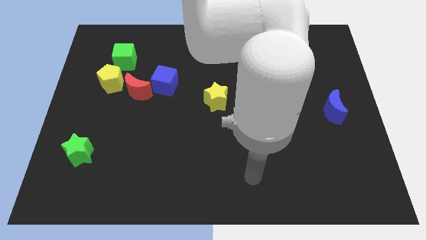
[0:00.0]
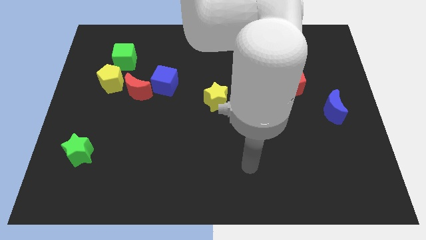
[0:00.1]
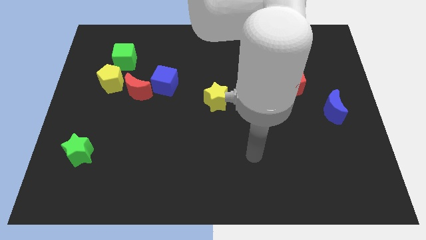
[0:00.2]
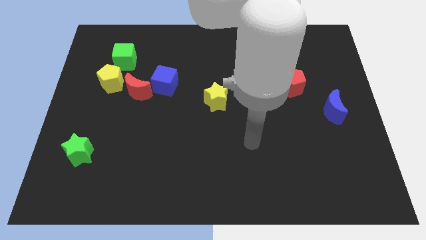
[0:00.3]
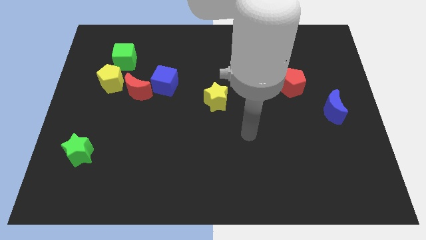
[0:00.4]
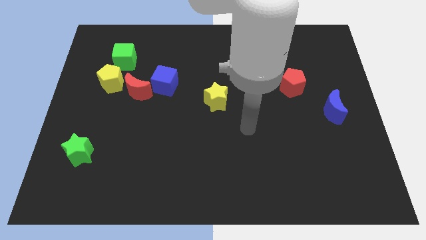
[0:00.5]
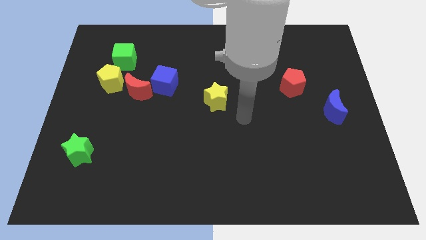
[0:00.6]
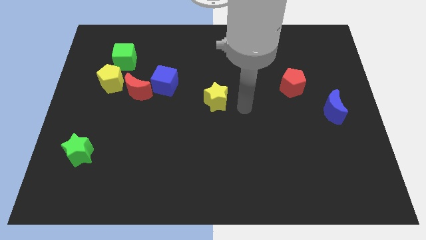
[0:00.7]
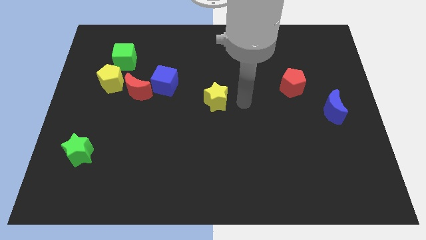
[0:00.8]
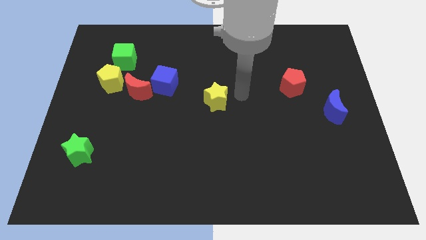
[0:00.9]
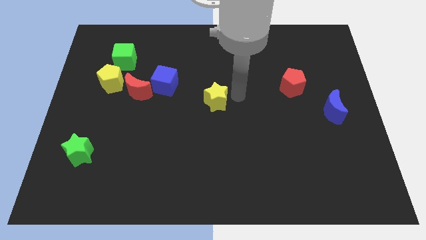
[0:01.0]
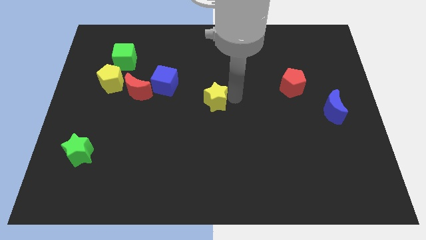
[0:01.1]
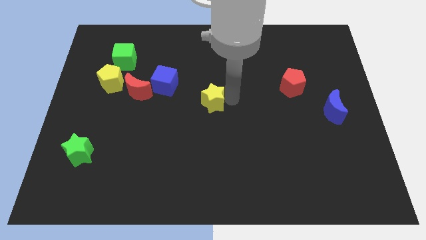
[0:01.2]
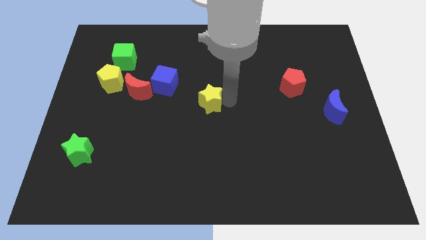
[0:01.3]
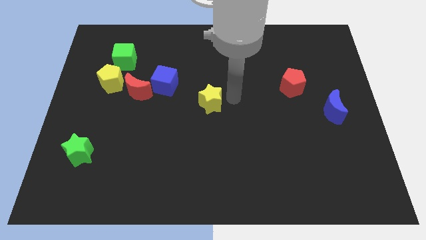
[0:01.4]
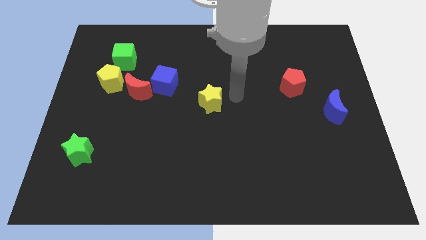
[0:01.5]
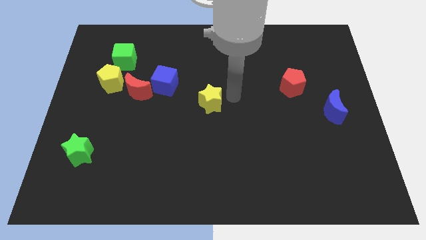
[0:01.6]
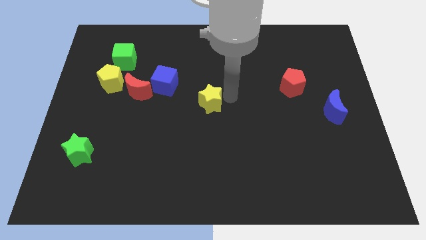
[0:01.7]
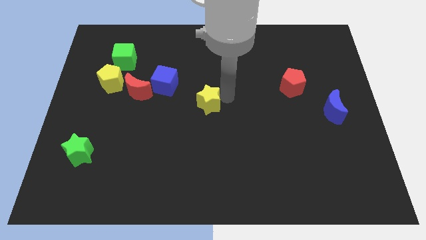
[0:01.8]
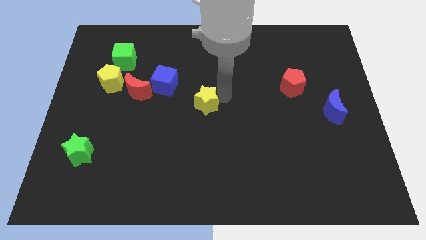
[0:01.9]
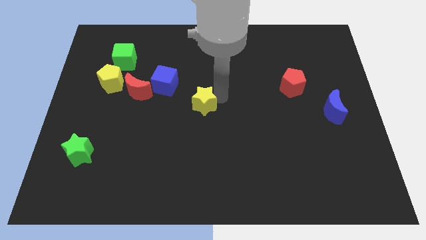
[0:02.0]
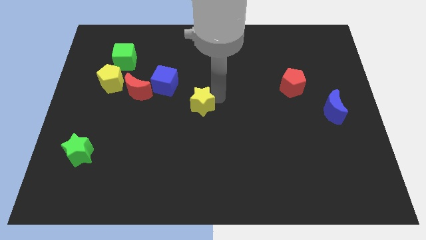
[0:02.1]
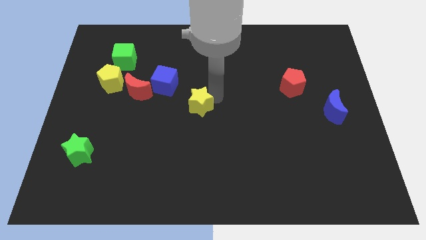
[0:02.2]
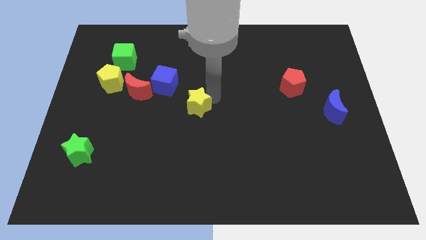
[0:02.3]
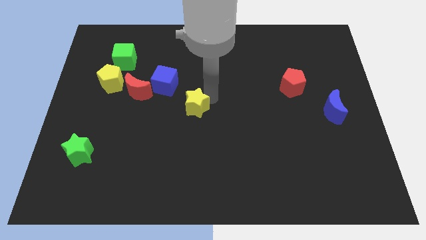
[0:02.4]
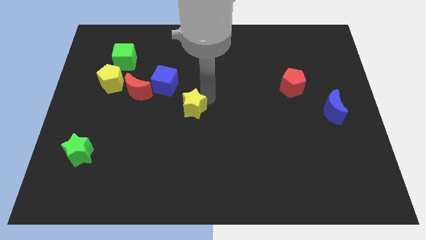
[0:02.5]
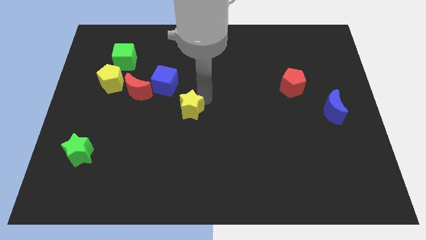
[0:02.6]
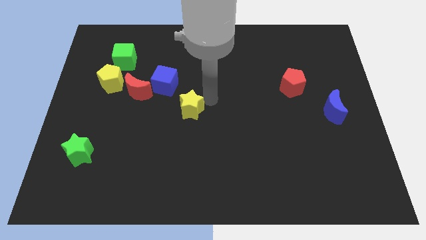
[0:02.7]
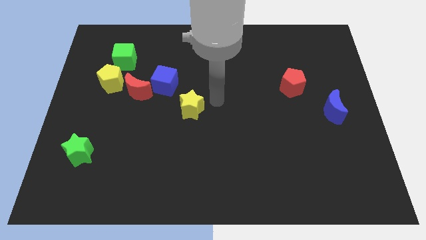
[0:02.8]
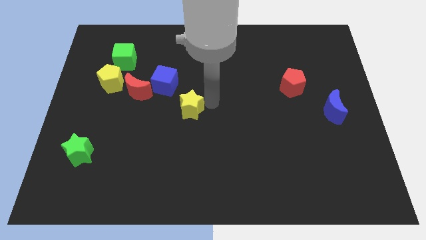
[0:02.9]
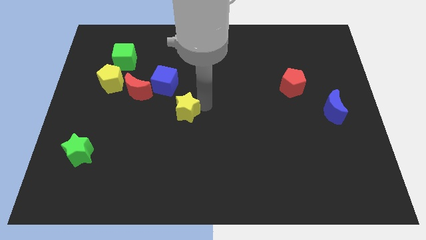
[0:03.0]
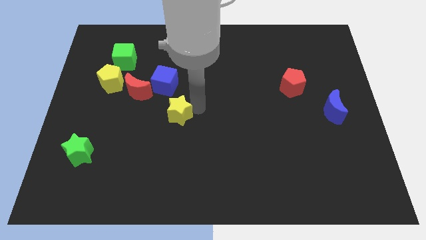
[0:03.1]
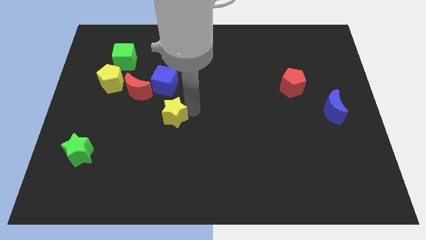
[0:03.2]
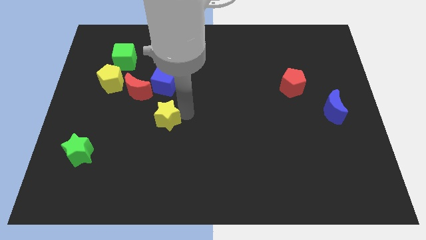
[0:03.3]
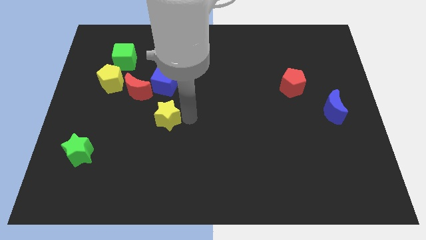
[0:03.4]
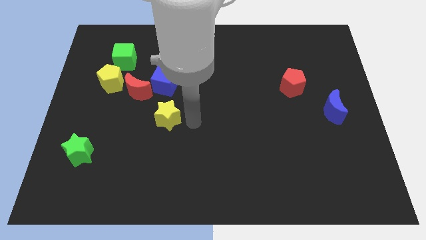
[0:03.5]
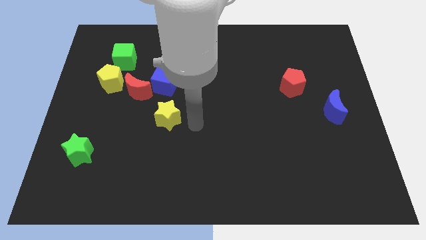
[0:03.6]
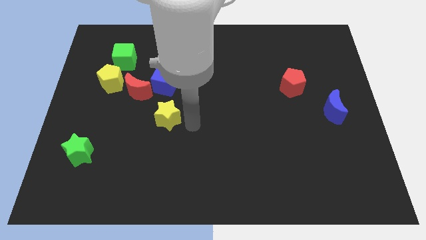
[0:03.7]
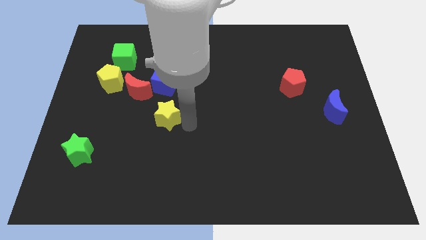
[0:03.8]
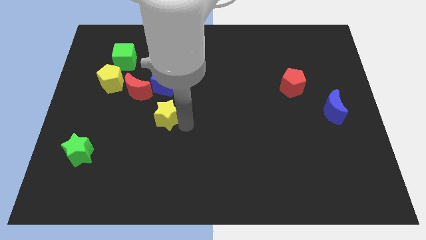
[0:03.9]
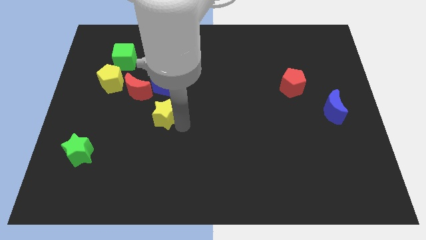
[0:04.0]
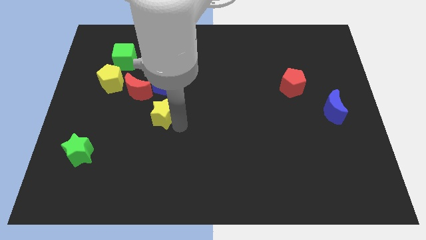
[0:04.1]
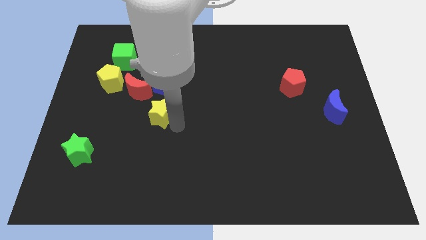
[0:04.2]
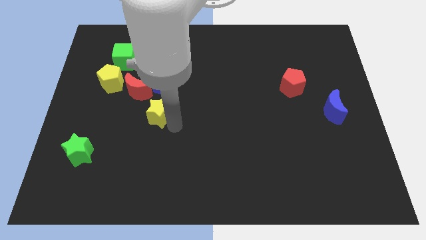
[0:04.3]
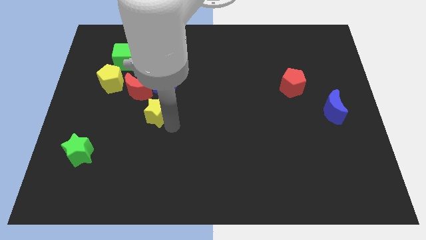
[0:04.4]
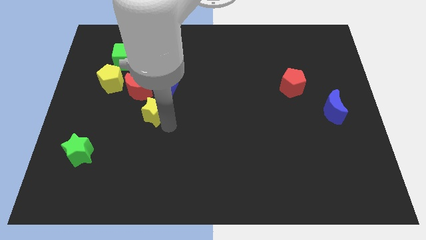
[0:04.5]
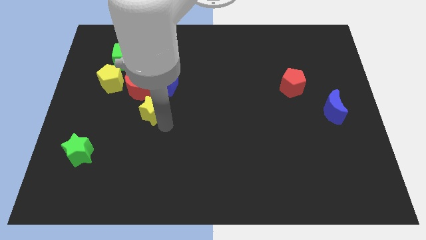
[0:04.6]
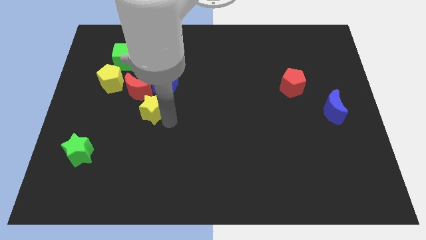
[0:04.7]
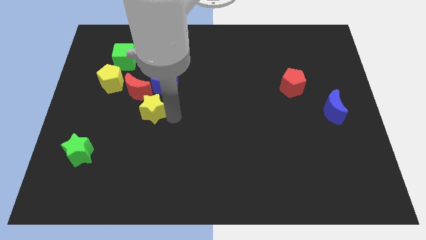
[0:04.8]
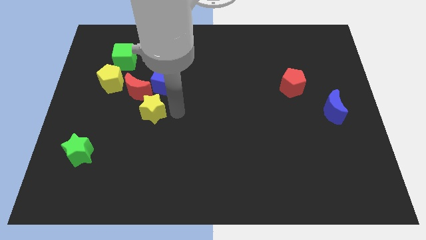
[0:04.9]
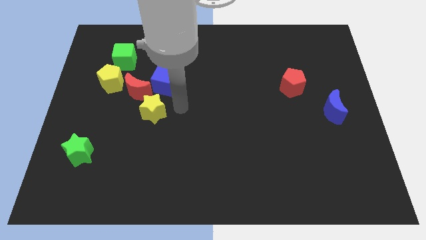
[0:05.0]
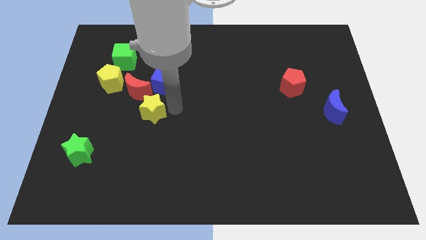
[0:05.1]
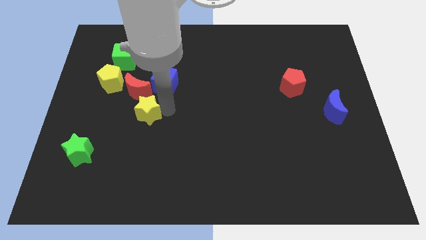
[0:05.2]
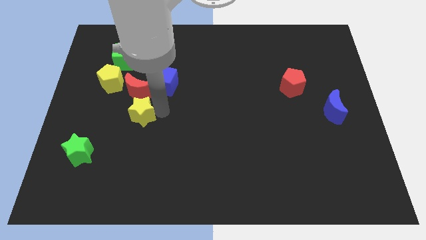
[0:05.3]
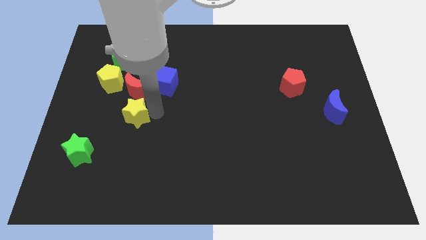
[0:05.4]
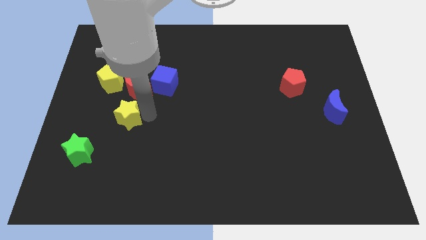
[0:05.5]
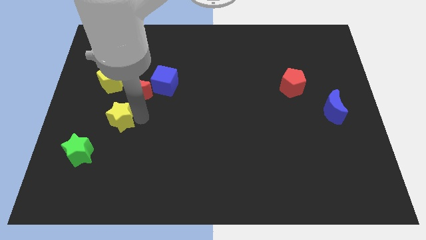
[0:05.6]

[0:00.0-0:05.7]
slide the yellow star to the bottom of the yellow pentagon

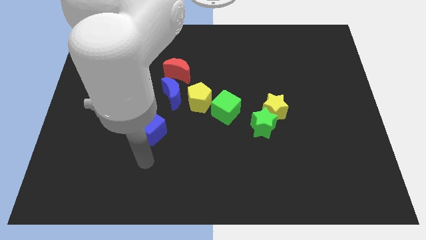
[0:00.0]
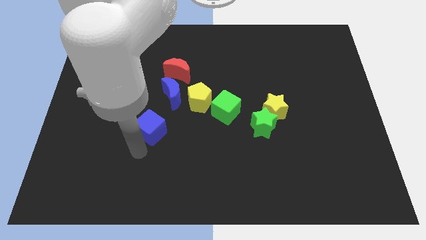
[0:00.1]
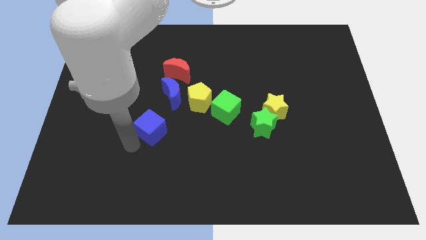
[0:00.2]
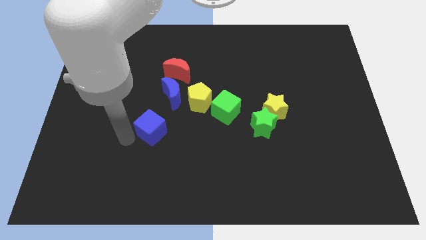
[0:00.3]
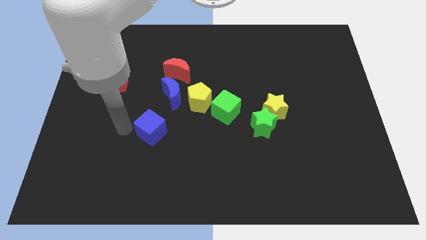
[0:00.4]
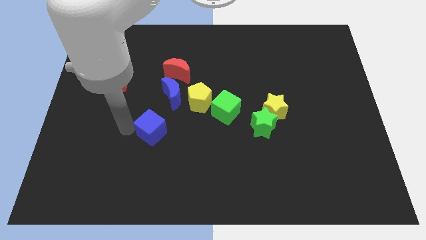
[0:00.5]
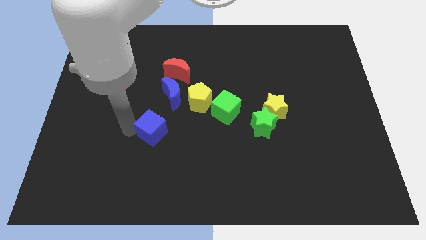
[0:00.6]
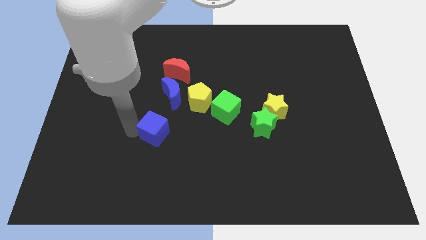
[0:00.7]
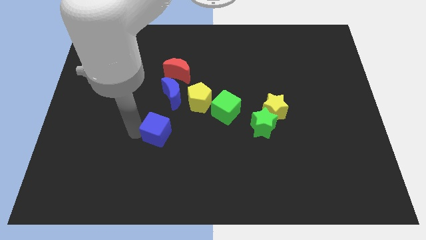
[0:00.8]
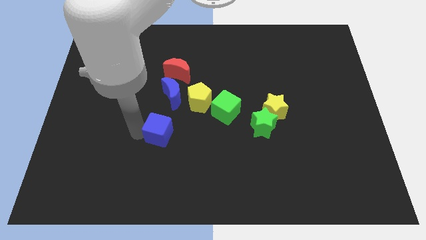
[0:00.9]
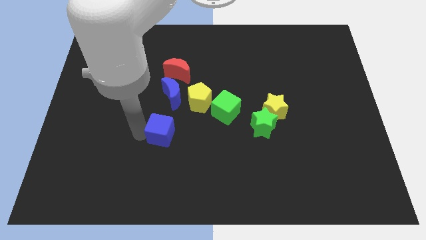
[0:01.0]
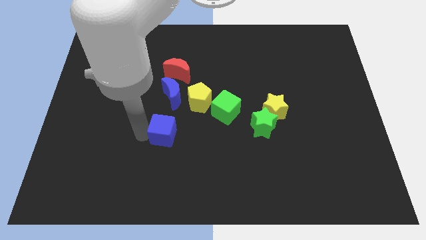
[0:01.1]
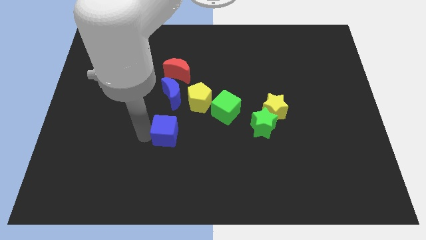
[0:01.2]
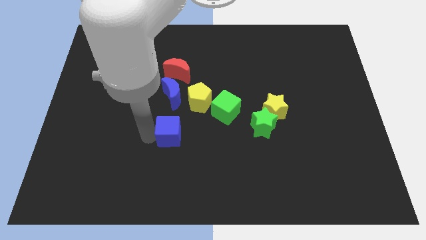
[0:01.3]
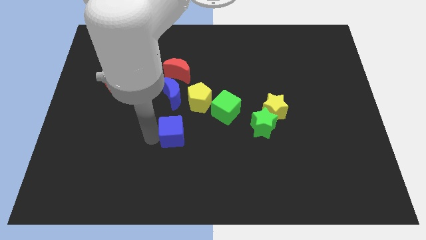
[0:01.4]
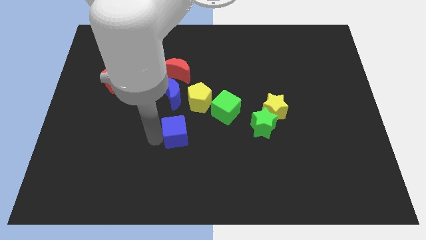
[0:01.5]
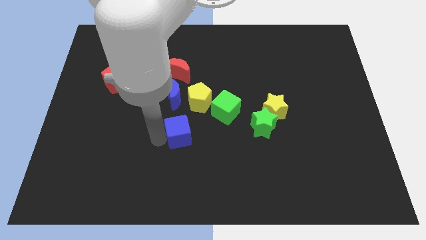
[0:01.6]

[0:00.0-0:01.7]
move the blue cube diagonally down and to the left of the green cube
